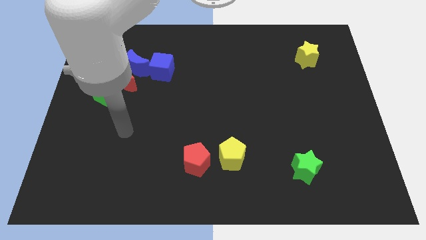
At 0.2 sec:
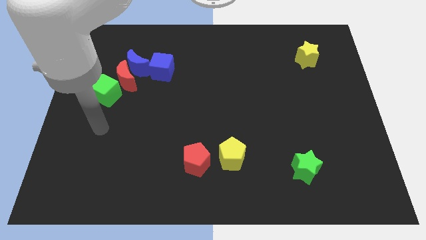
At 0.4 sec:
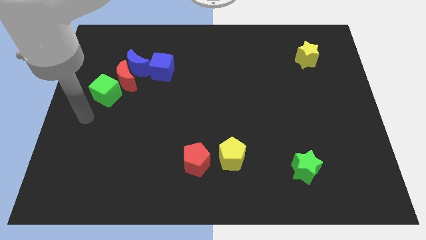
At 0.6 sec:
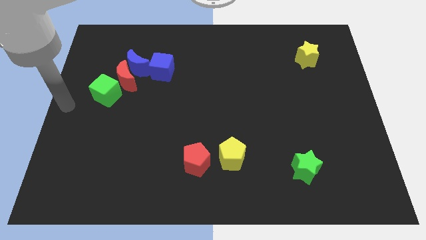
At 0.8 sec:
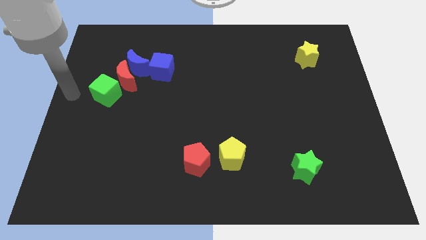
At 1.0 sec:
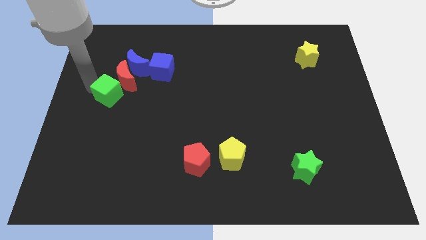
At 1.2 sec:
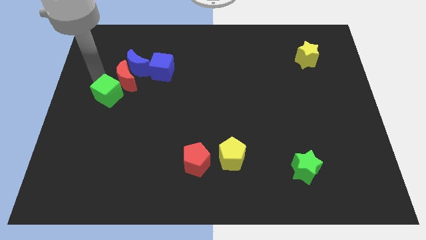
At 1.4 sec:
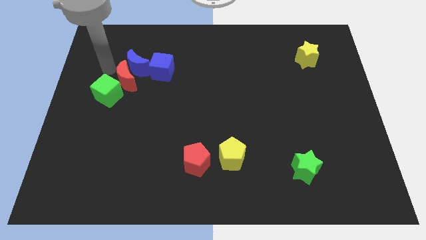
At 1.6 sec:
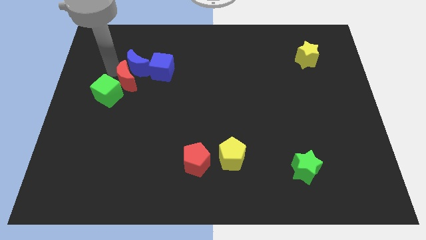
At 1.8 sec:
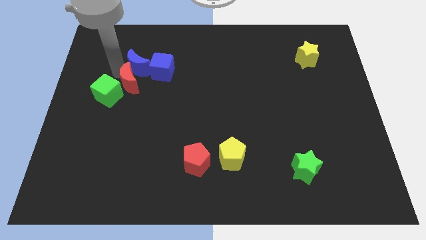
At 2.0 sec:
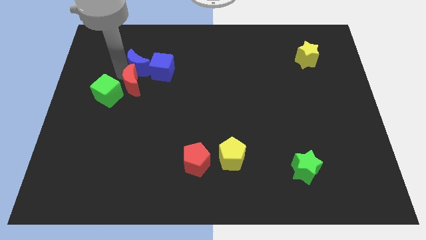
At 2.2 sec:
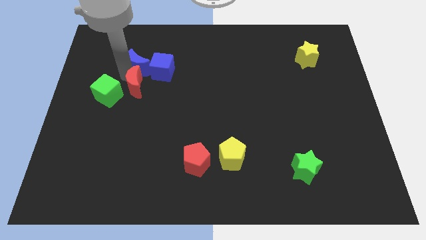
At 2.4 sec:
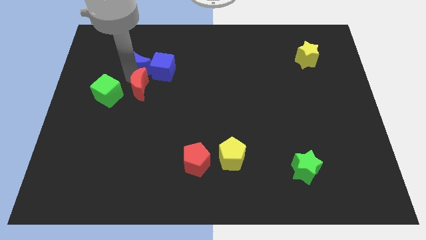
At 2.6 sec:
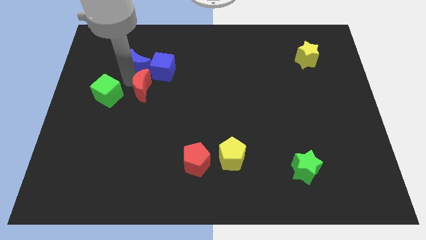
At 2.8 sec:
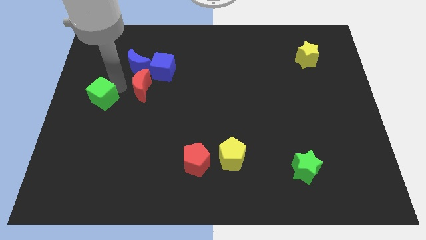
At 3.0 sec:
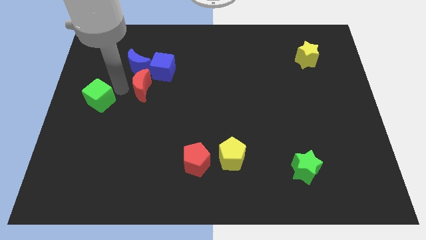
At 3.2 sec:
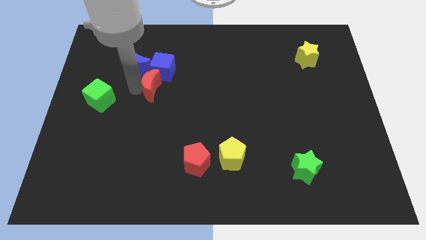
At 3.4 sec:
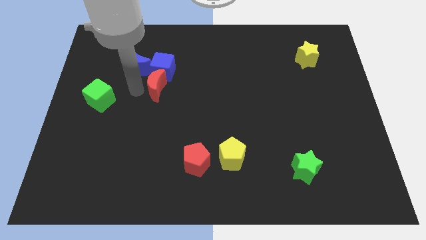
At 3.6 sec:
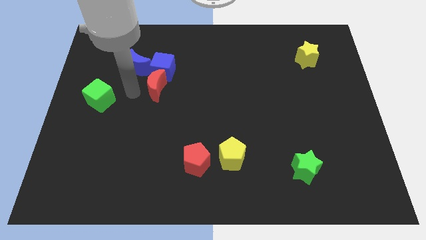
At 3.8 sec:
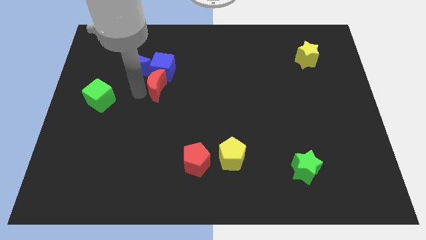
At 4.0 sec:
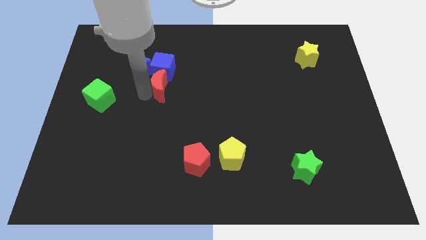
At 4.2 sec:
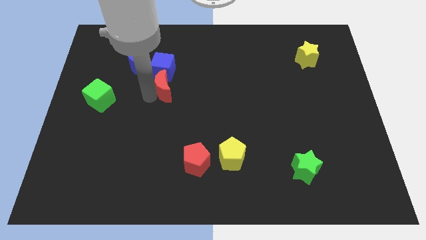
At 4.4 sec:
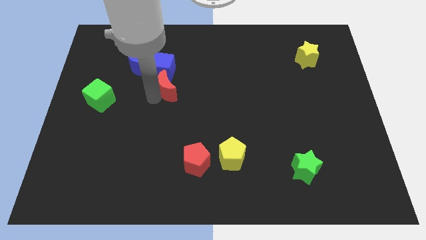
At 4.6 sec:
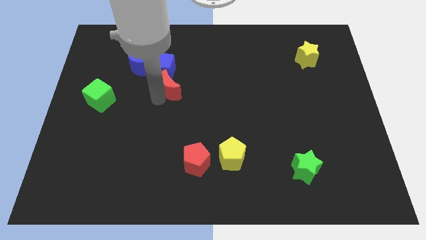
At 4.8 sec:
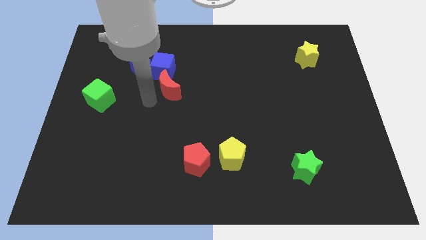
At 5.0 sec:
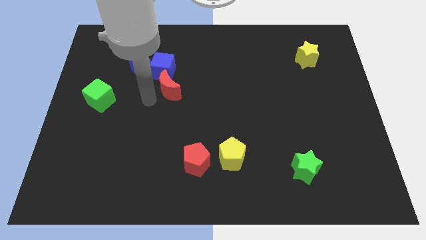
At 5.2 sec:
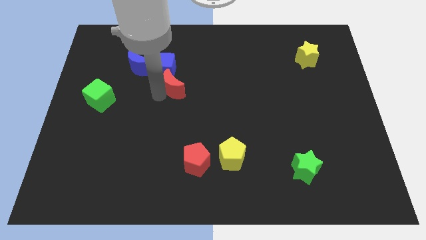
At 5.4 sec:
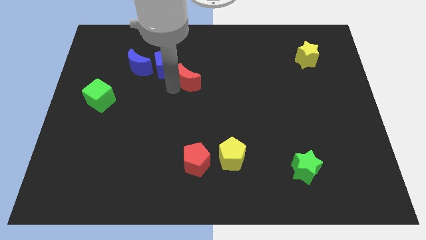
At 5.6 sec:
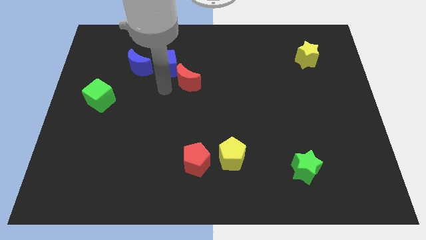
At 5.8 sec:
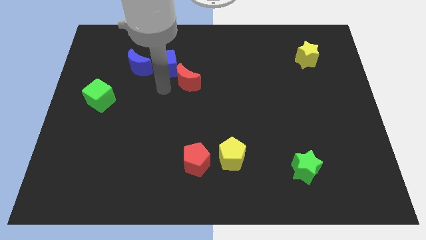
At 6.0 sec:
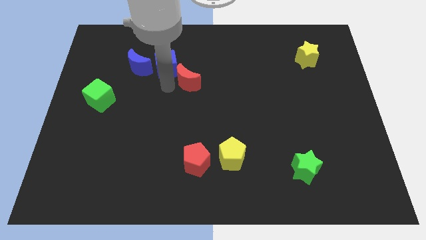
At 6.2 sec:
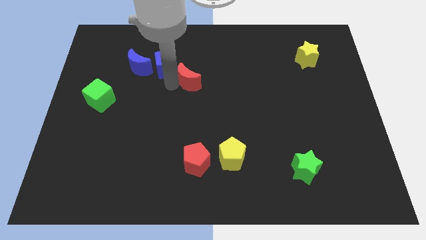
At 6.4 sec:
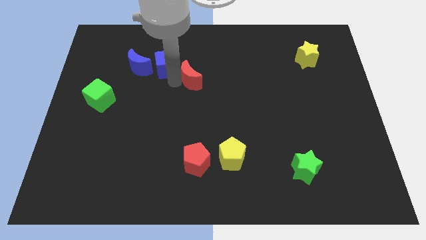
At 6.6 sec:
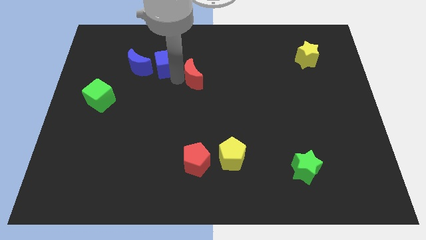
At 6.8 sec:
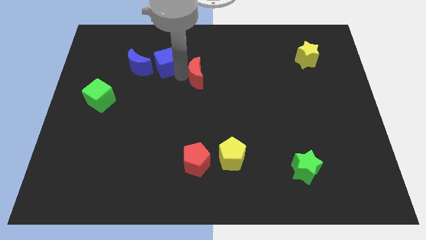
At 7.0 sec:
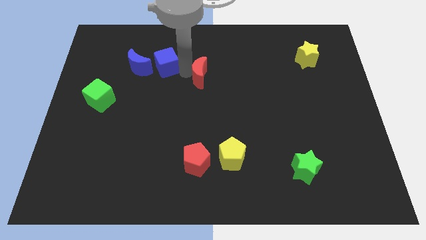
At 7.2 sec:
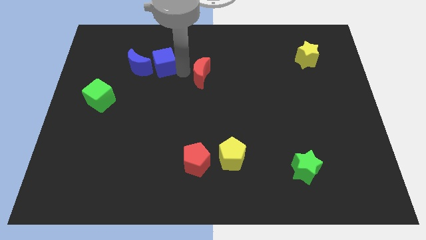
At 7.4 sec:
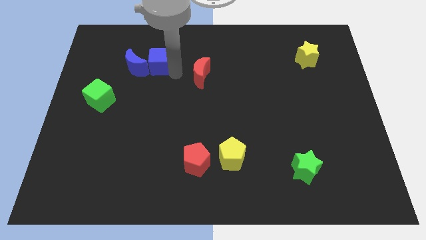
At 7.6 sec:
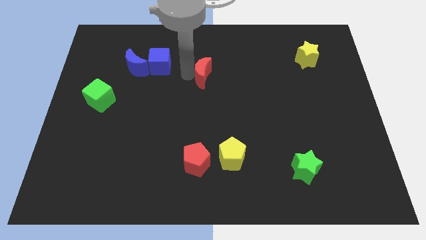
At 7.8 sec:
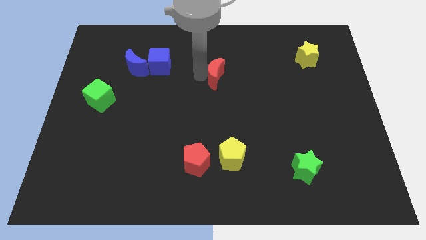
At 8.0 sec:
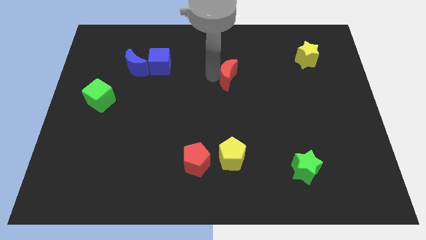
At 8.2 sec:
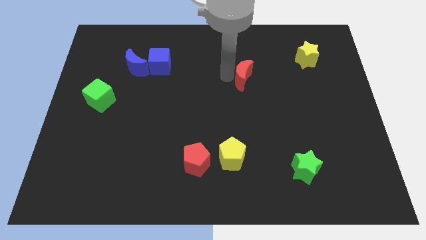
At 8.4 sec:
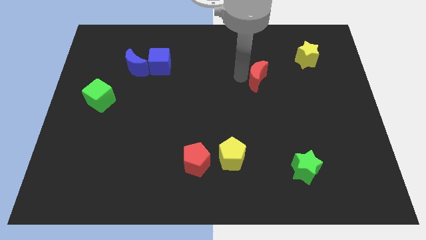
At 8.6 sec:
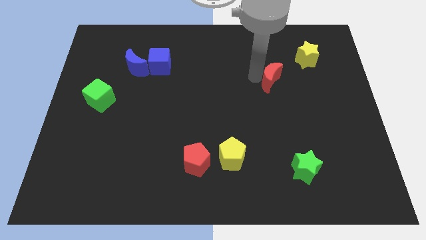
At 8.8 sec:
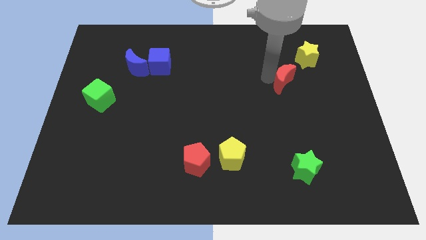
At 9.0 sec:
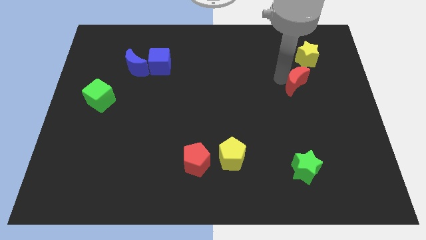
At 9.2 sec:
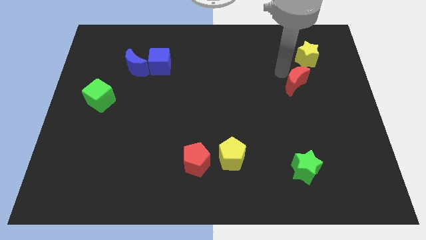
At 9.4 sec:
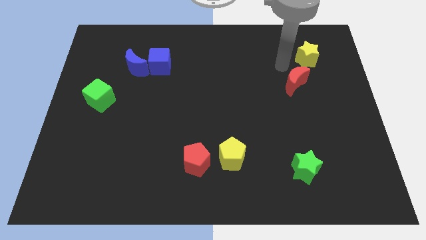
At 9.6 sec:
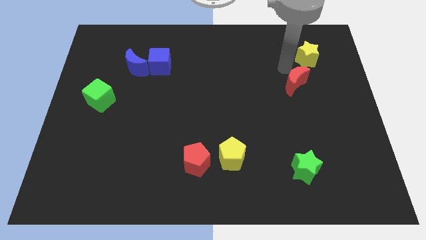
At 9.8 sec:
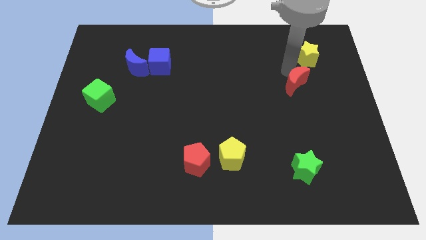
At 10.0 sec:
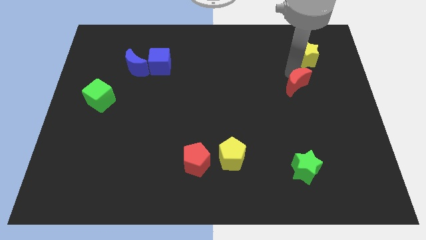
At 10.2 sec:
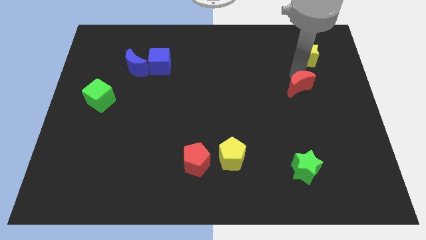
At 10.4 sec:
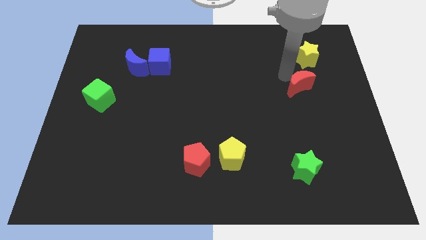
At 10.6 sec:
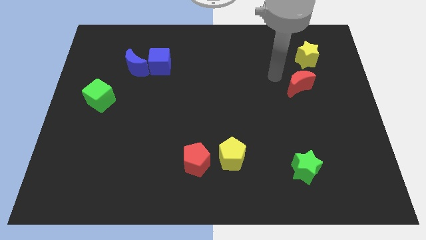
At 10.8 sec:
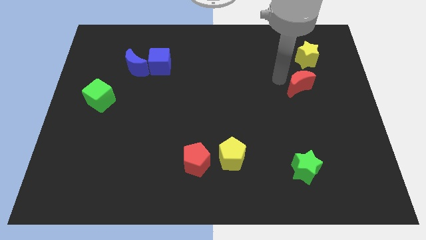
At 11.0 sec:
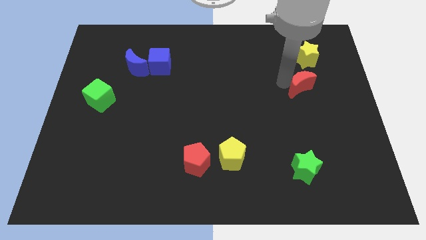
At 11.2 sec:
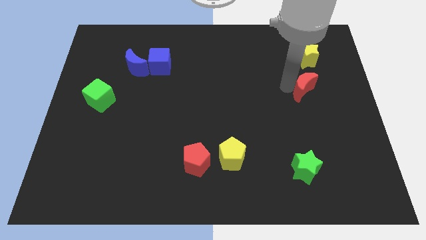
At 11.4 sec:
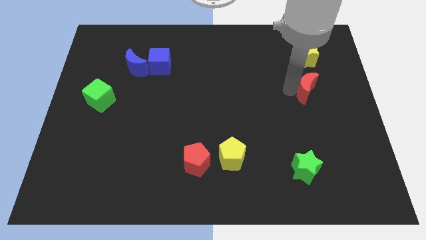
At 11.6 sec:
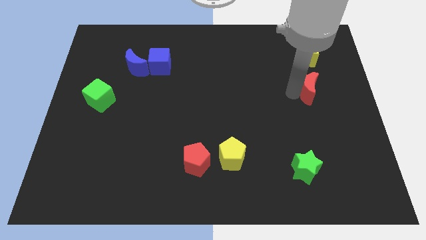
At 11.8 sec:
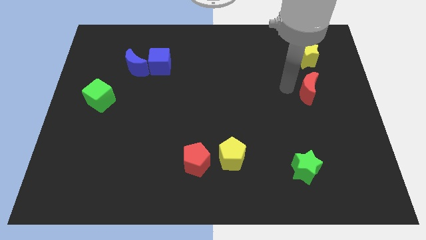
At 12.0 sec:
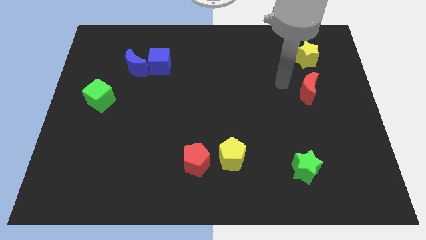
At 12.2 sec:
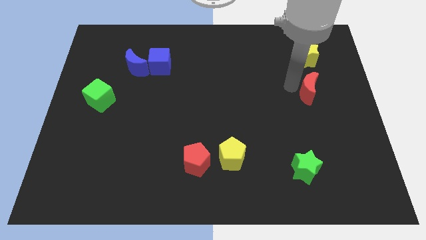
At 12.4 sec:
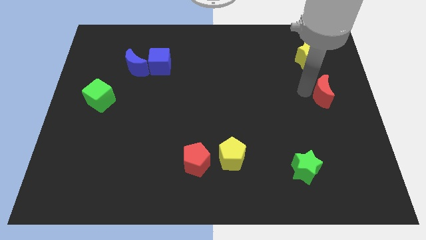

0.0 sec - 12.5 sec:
slide the red moon to the right side of the board
